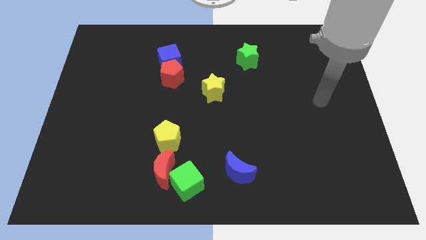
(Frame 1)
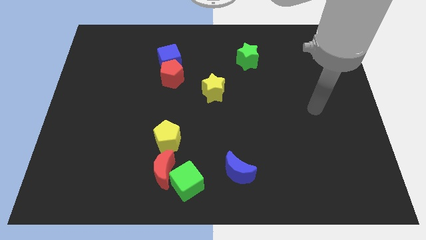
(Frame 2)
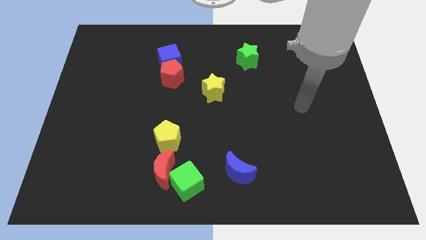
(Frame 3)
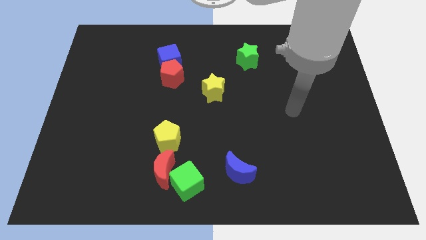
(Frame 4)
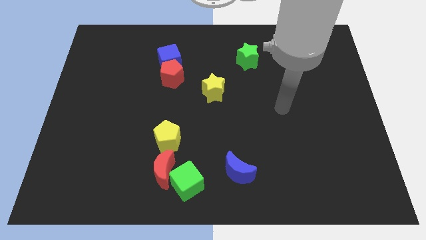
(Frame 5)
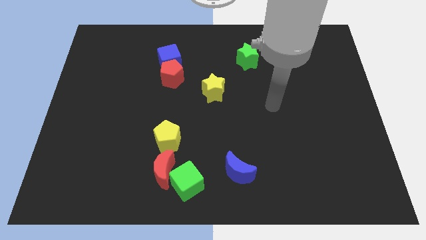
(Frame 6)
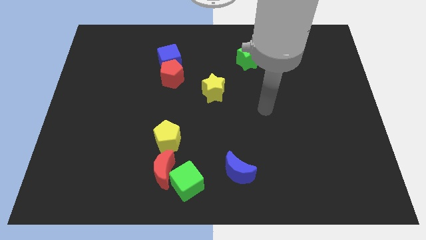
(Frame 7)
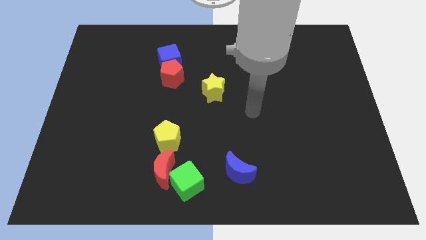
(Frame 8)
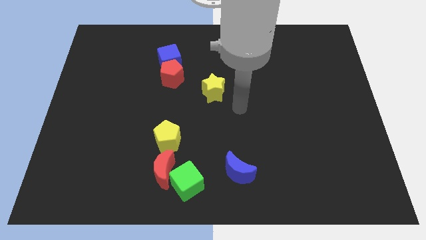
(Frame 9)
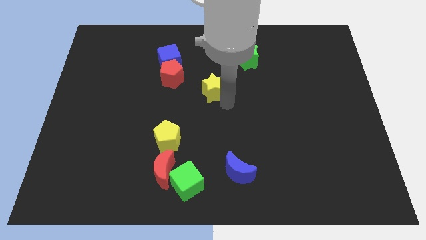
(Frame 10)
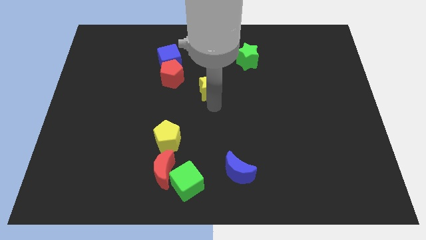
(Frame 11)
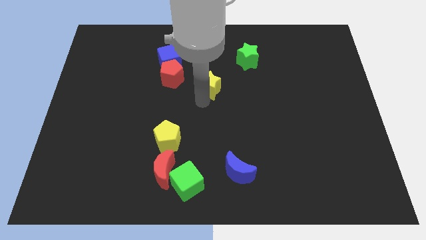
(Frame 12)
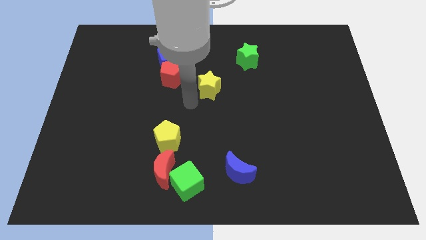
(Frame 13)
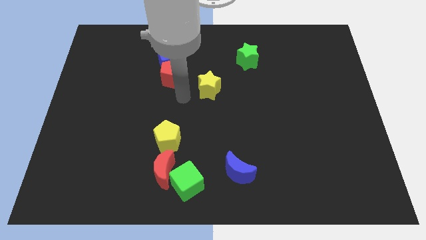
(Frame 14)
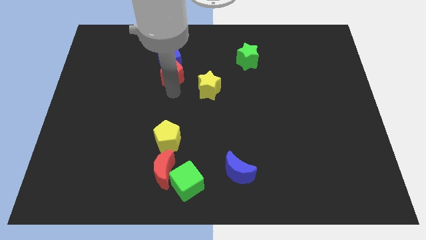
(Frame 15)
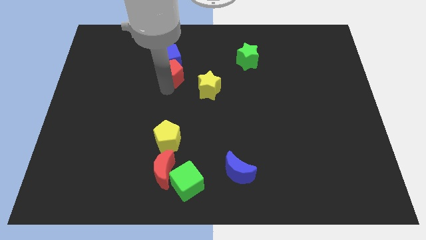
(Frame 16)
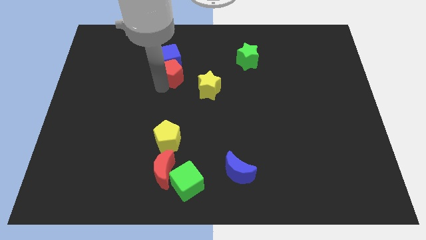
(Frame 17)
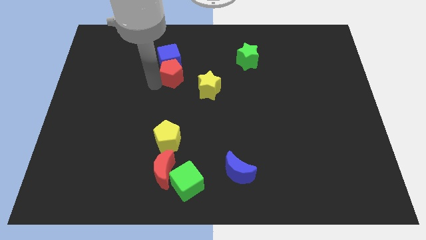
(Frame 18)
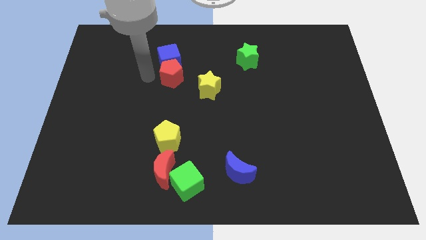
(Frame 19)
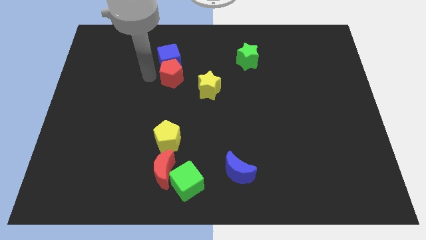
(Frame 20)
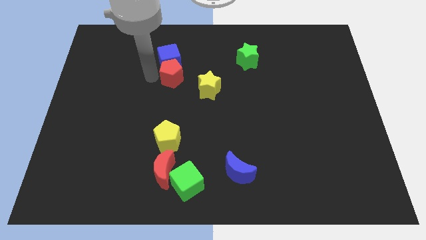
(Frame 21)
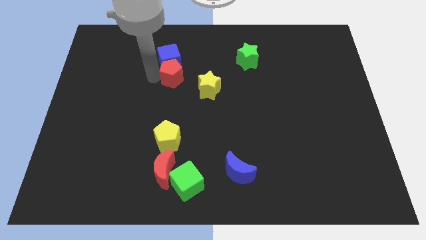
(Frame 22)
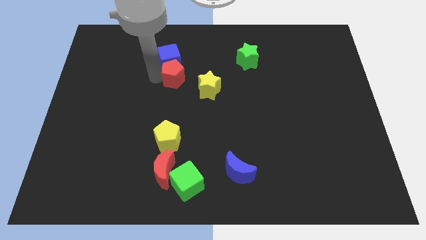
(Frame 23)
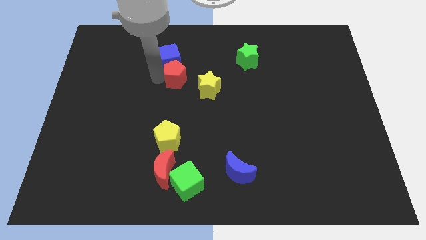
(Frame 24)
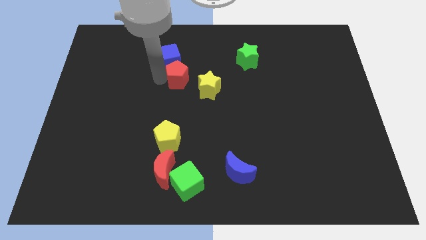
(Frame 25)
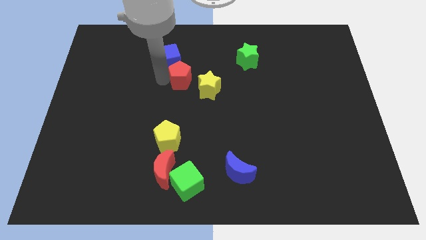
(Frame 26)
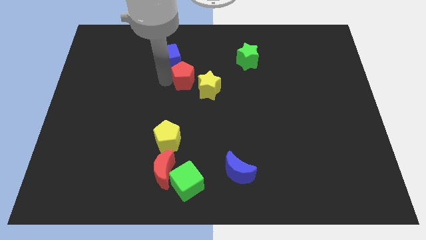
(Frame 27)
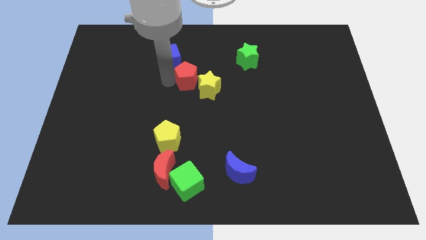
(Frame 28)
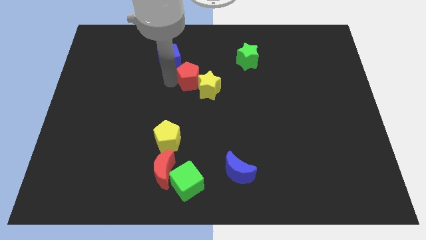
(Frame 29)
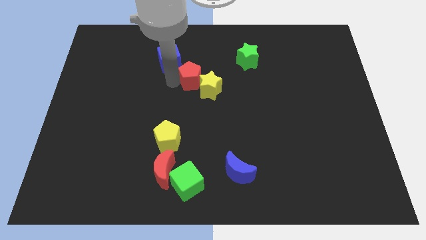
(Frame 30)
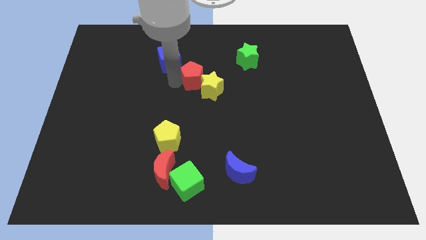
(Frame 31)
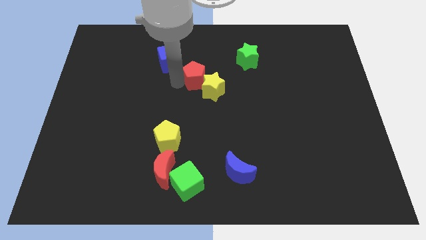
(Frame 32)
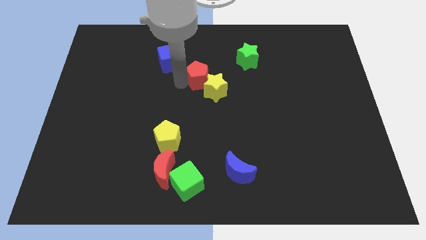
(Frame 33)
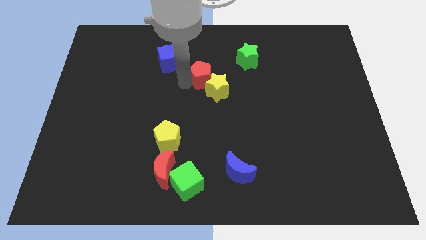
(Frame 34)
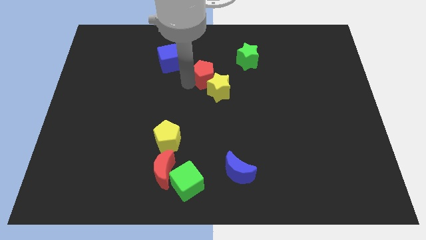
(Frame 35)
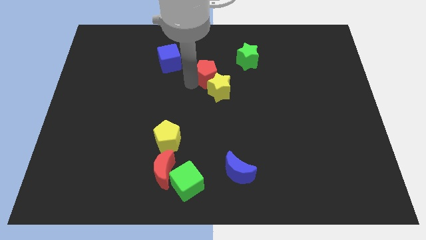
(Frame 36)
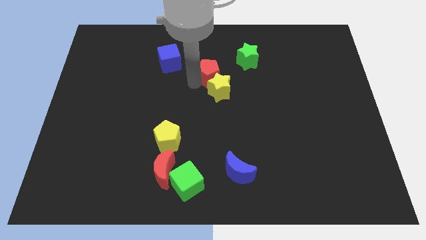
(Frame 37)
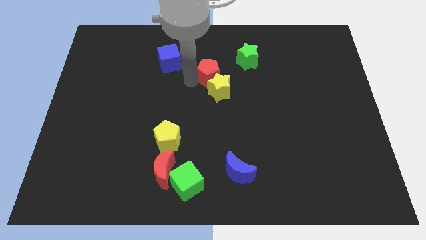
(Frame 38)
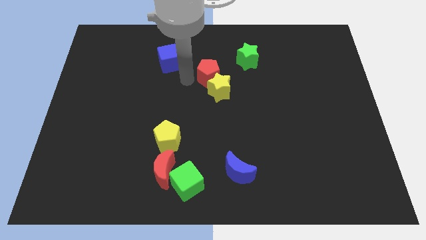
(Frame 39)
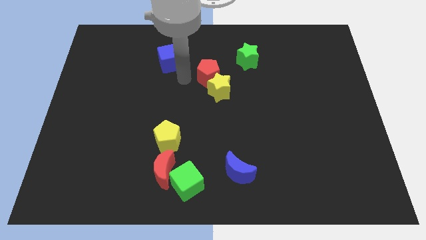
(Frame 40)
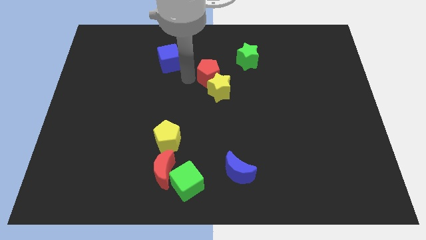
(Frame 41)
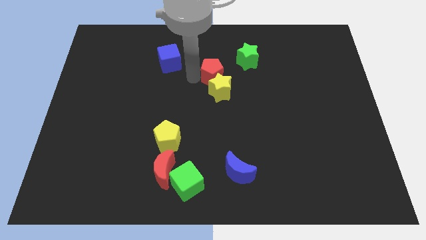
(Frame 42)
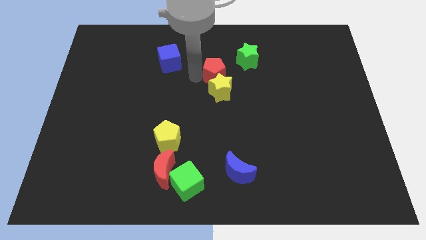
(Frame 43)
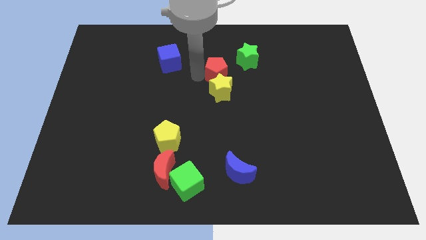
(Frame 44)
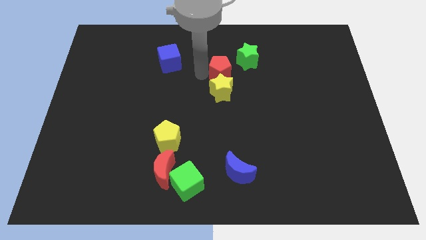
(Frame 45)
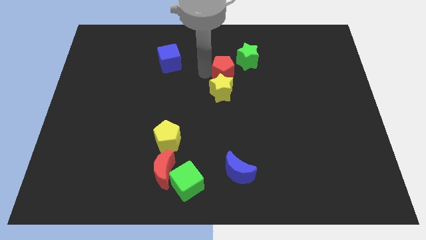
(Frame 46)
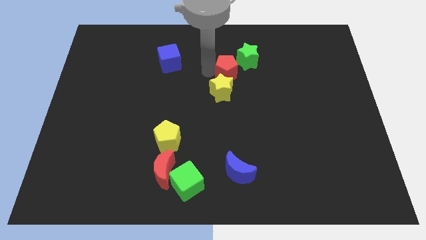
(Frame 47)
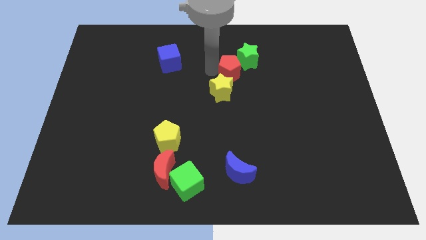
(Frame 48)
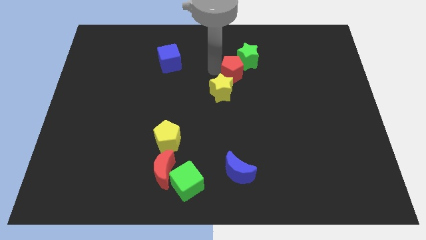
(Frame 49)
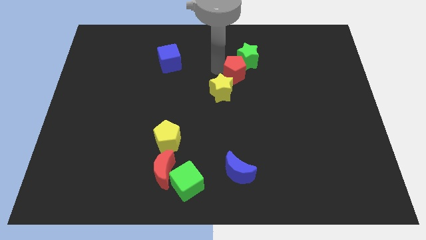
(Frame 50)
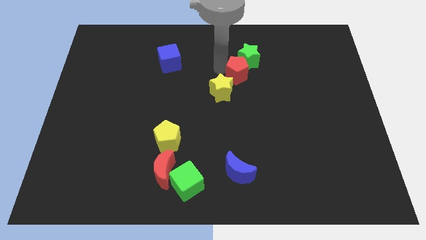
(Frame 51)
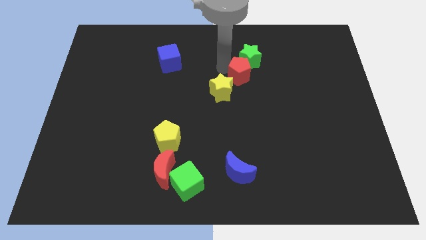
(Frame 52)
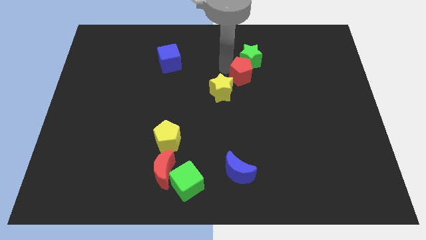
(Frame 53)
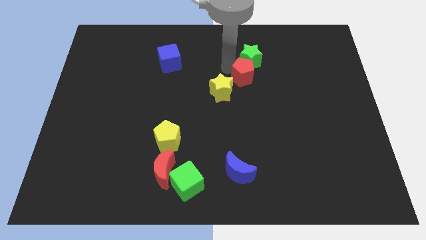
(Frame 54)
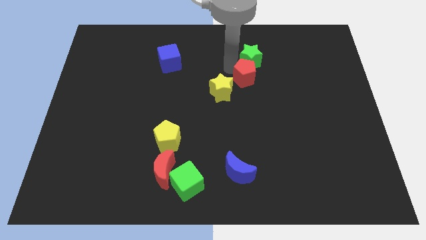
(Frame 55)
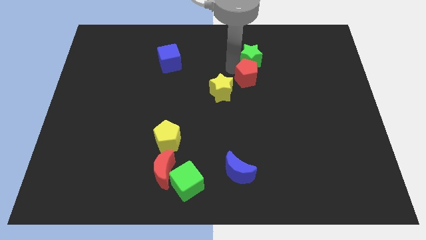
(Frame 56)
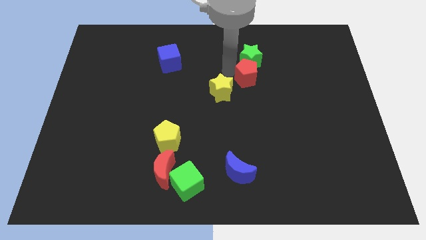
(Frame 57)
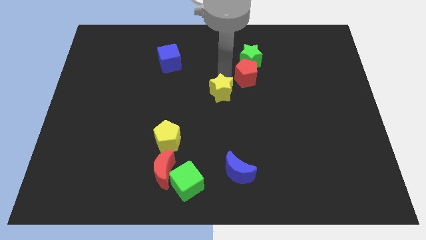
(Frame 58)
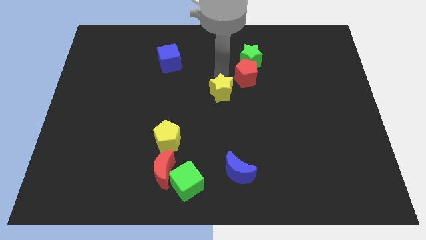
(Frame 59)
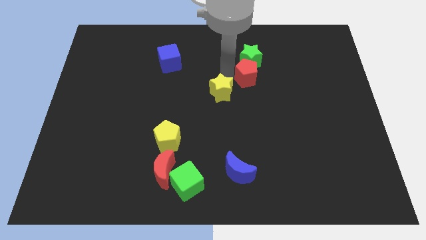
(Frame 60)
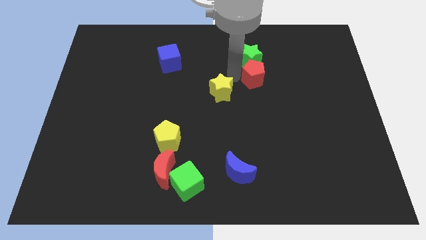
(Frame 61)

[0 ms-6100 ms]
move the red pentagon to the right

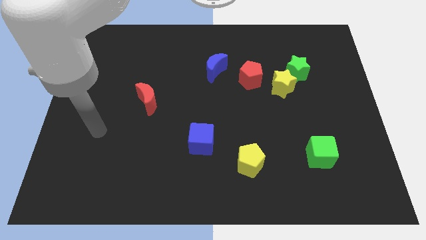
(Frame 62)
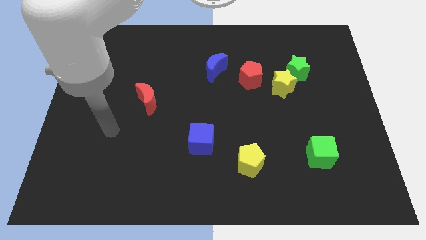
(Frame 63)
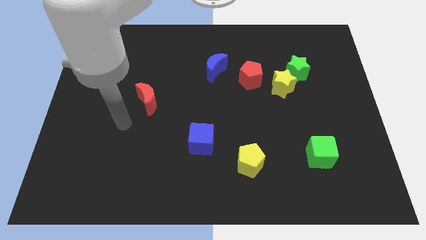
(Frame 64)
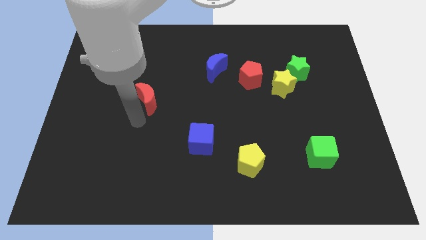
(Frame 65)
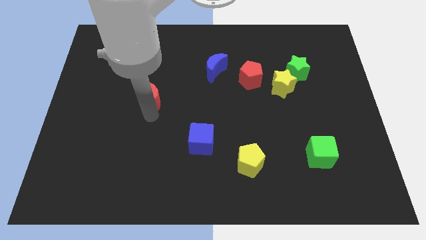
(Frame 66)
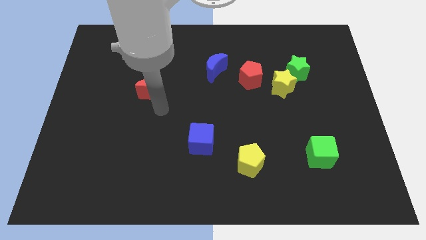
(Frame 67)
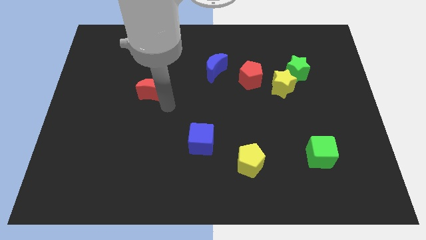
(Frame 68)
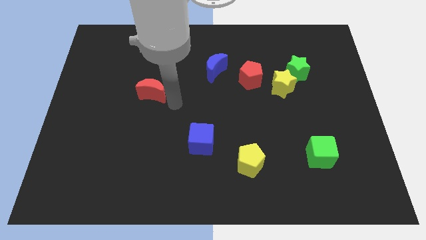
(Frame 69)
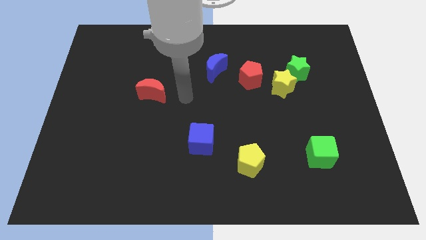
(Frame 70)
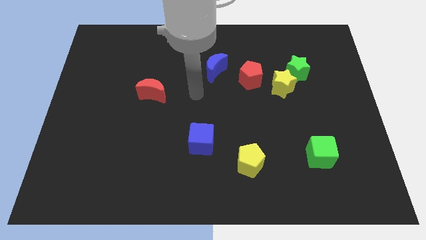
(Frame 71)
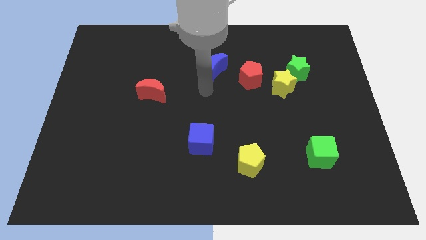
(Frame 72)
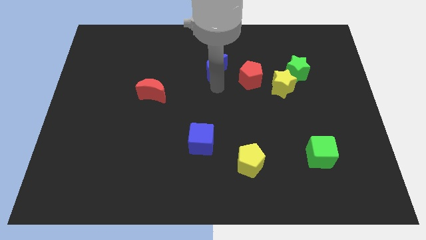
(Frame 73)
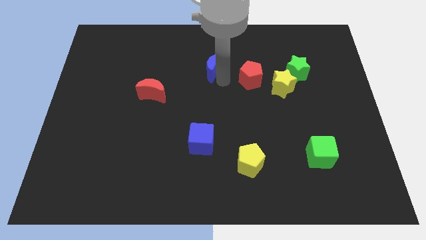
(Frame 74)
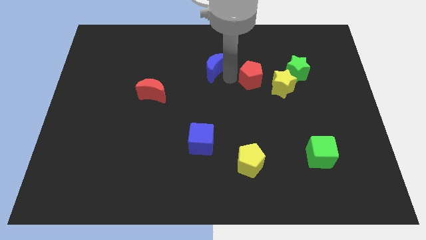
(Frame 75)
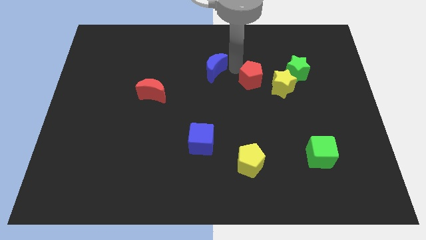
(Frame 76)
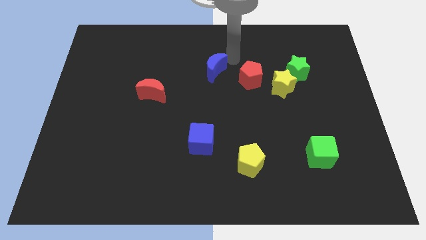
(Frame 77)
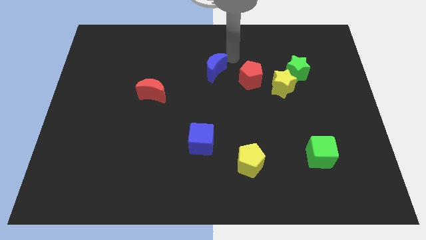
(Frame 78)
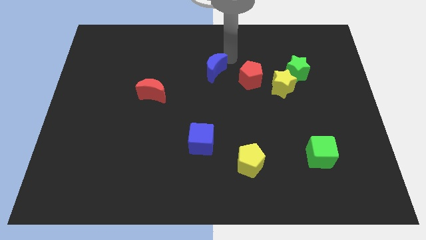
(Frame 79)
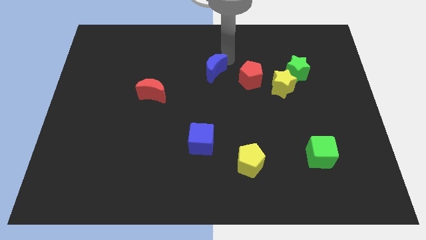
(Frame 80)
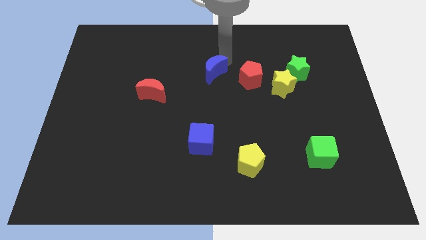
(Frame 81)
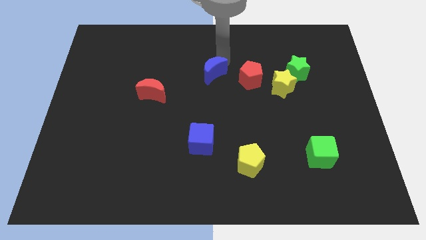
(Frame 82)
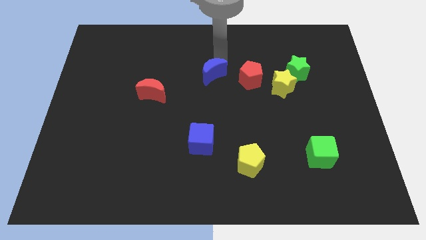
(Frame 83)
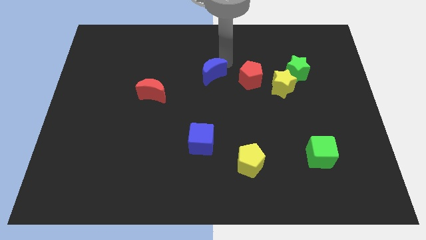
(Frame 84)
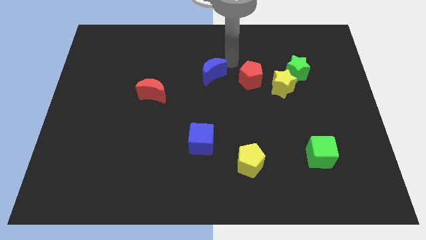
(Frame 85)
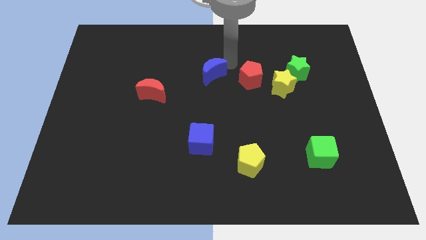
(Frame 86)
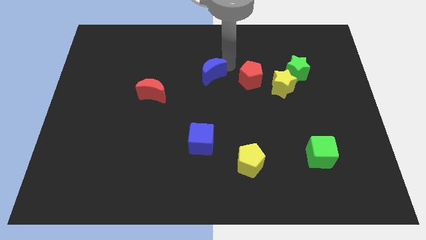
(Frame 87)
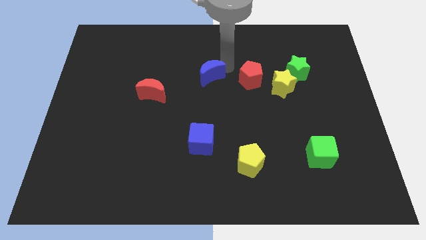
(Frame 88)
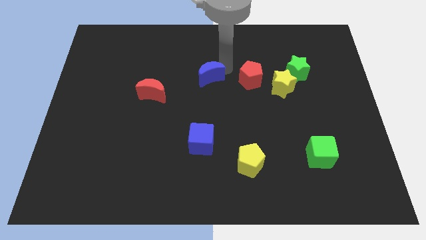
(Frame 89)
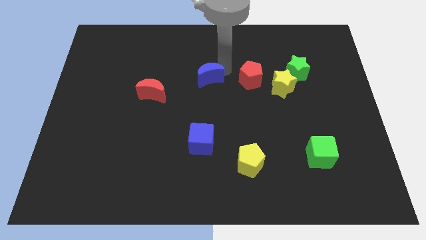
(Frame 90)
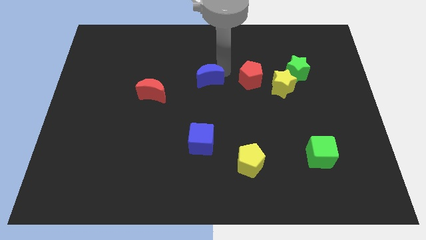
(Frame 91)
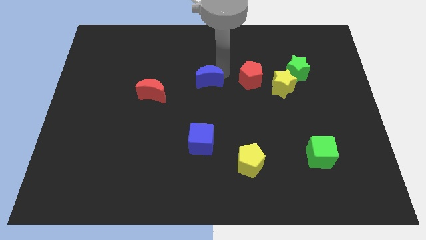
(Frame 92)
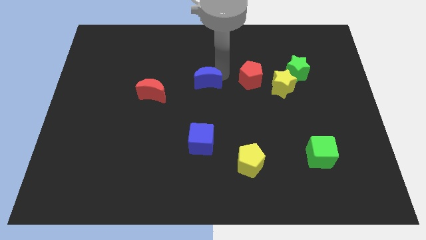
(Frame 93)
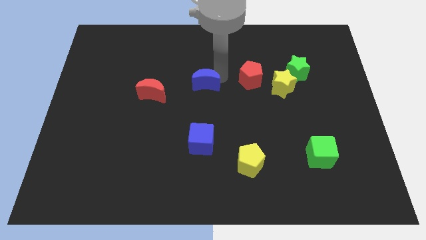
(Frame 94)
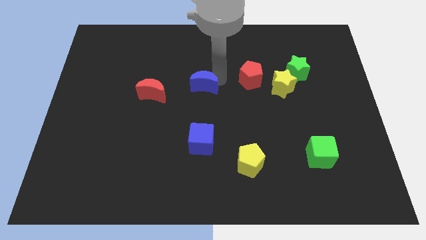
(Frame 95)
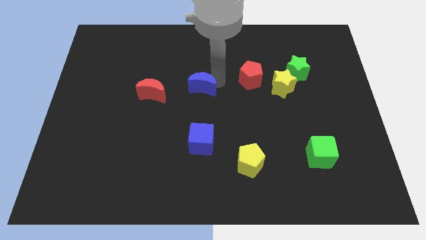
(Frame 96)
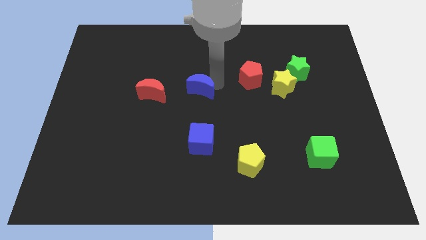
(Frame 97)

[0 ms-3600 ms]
push the blue moon a bit downwards and left diagonally
